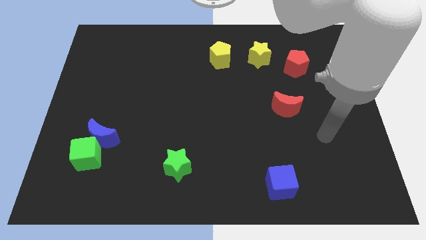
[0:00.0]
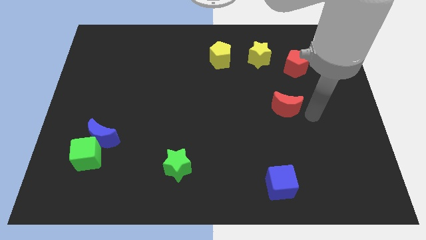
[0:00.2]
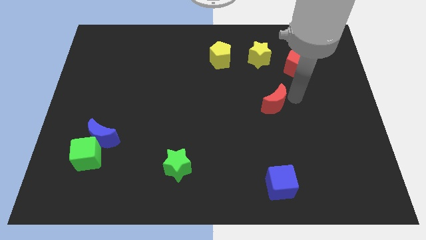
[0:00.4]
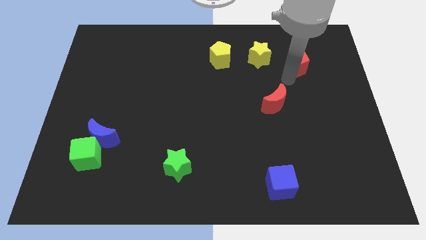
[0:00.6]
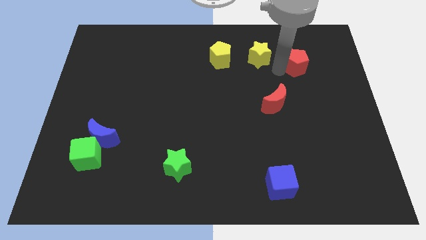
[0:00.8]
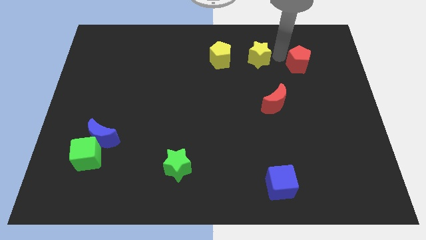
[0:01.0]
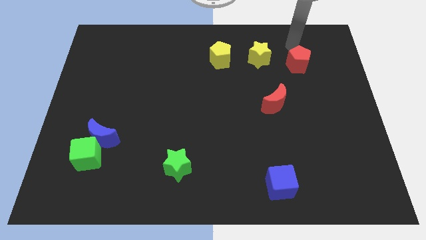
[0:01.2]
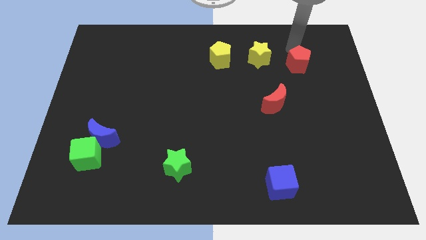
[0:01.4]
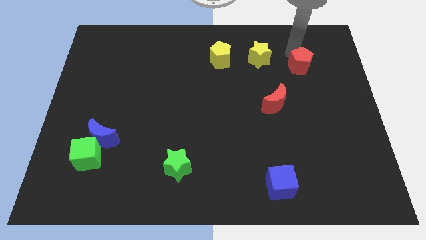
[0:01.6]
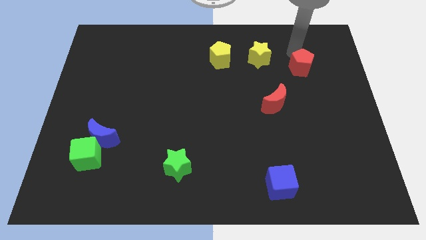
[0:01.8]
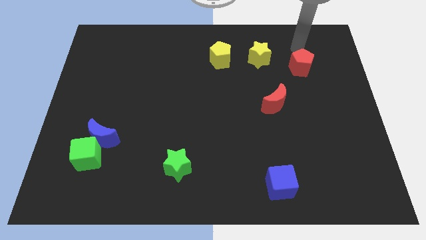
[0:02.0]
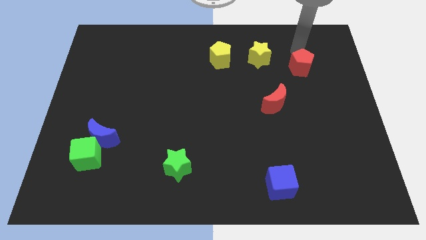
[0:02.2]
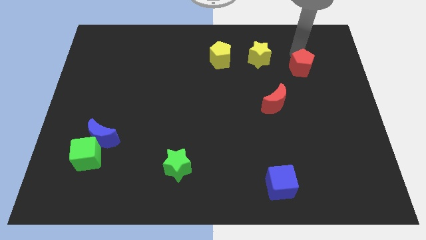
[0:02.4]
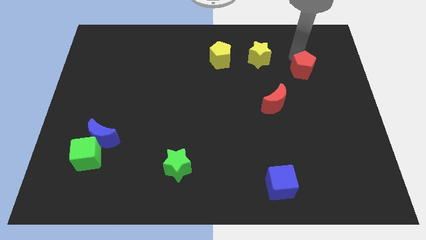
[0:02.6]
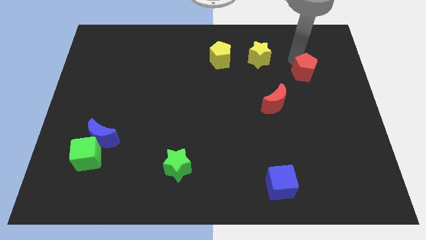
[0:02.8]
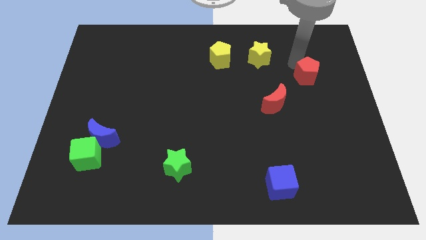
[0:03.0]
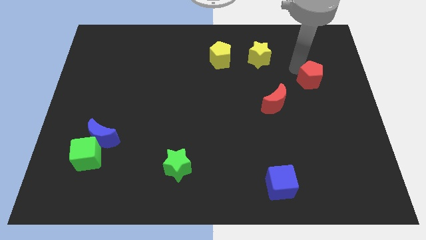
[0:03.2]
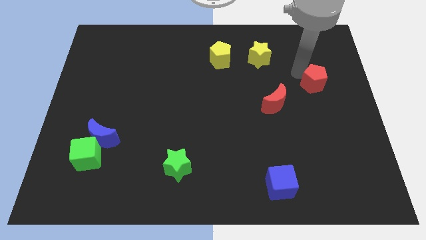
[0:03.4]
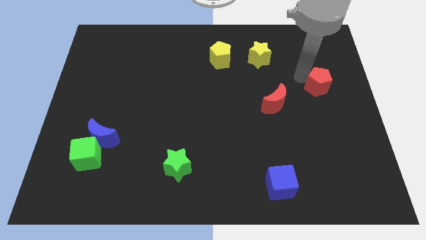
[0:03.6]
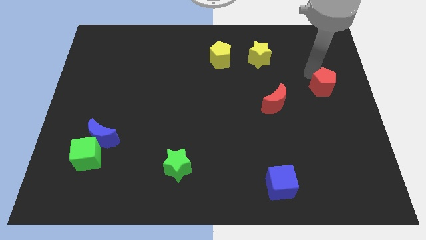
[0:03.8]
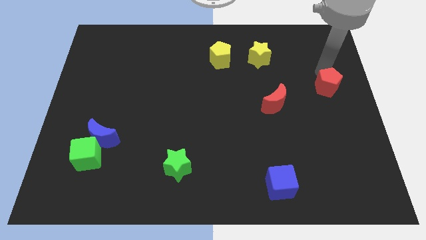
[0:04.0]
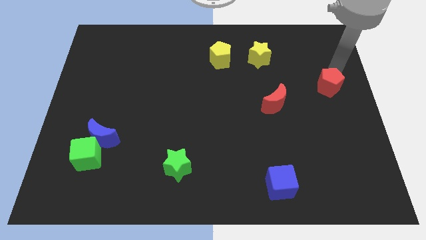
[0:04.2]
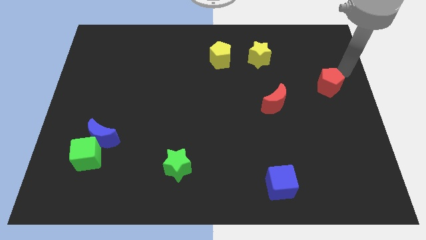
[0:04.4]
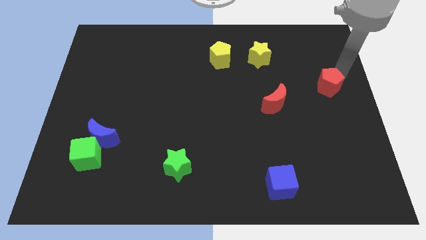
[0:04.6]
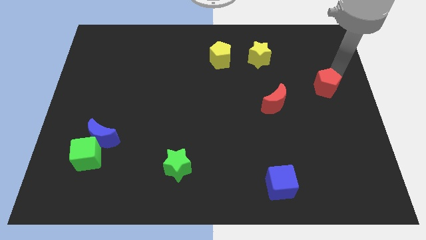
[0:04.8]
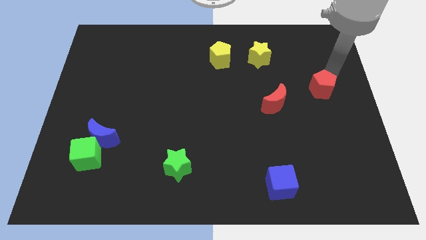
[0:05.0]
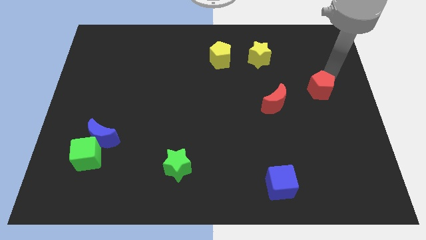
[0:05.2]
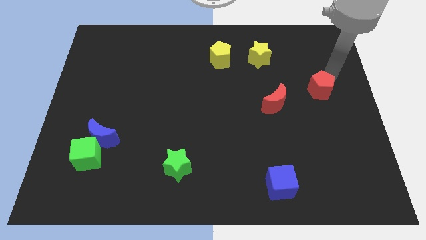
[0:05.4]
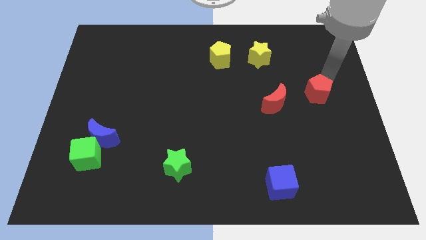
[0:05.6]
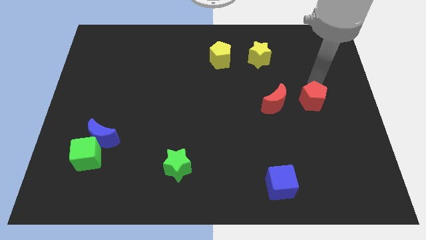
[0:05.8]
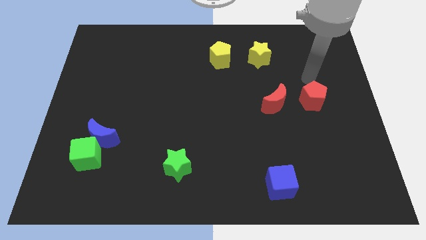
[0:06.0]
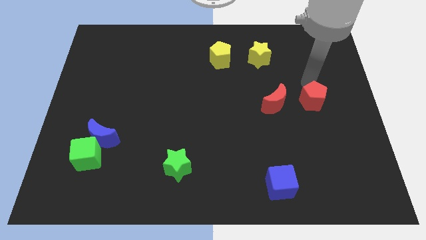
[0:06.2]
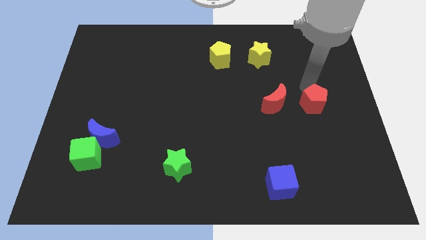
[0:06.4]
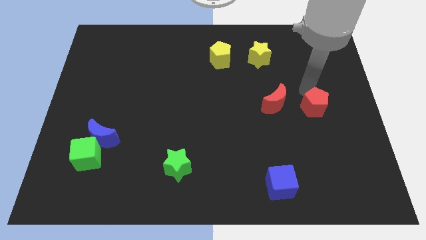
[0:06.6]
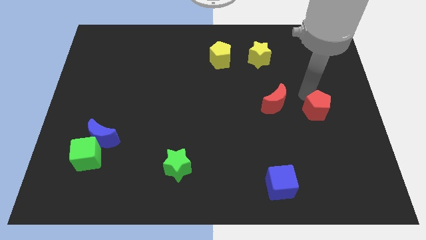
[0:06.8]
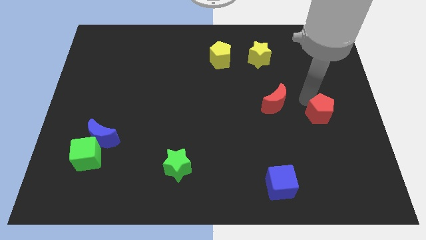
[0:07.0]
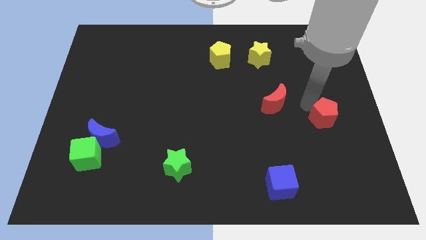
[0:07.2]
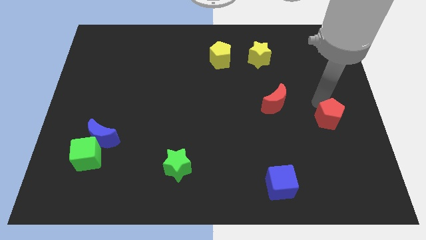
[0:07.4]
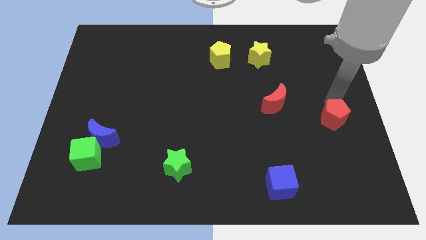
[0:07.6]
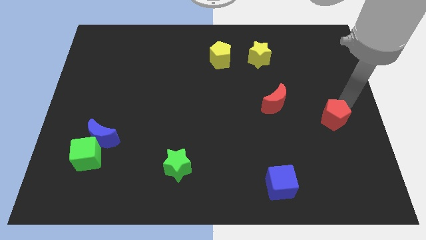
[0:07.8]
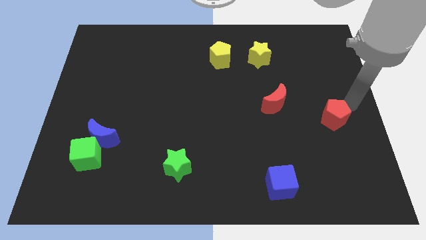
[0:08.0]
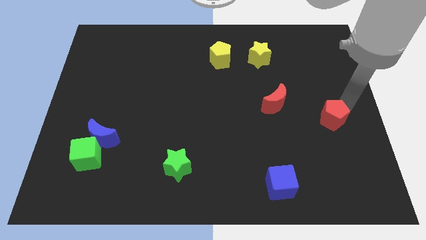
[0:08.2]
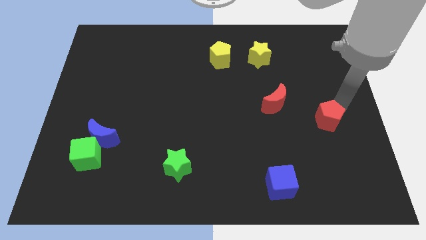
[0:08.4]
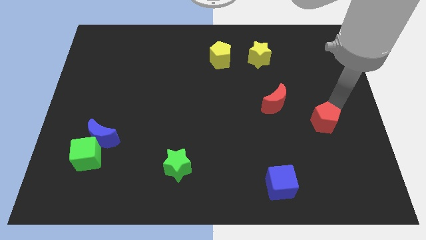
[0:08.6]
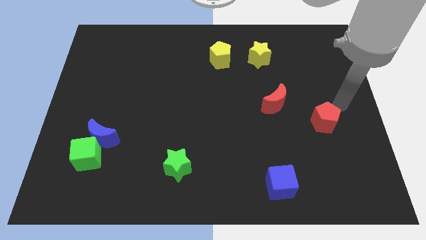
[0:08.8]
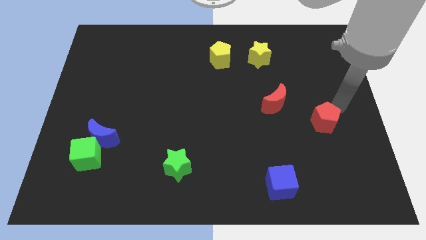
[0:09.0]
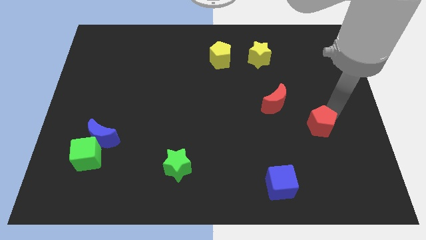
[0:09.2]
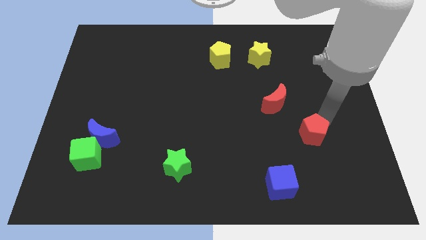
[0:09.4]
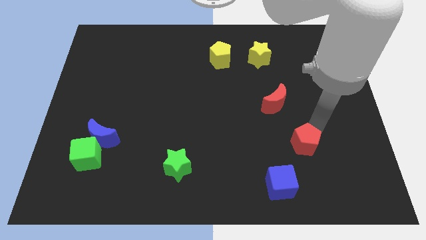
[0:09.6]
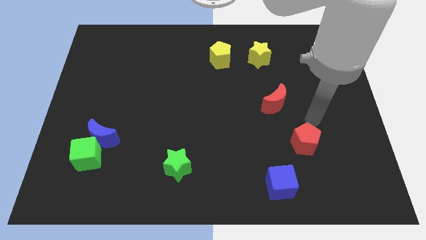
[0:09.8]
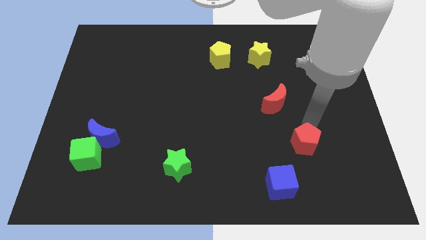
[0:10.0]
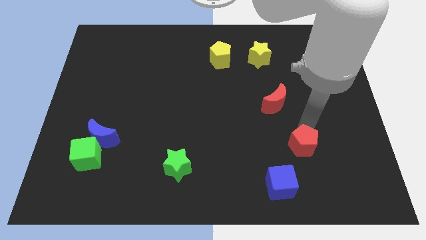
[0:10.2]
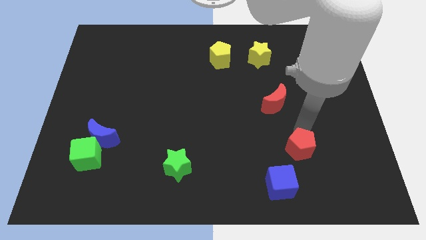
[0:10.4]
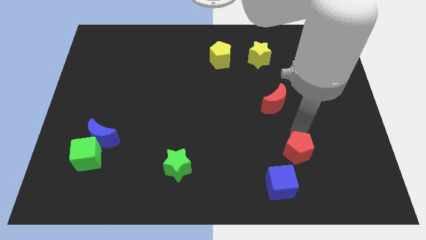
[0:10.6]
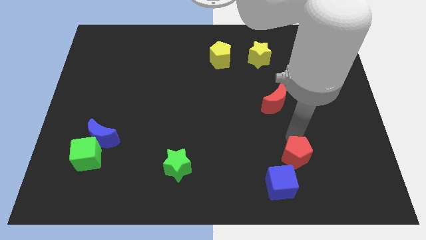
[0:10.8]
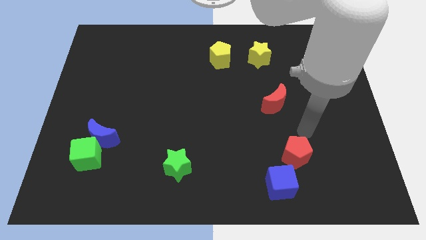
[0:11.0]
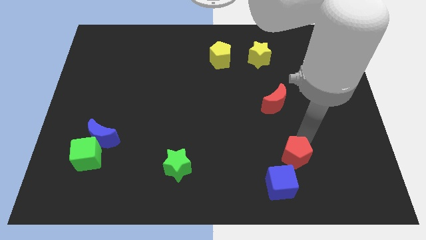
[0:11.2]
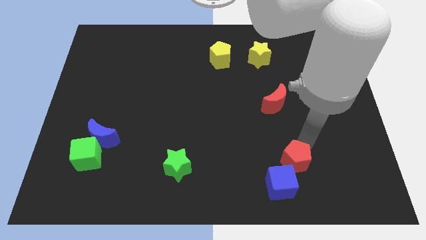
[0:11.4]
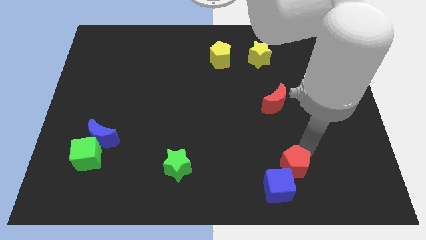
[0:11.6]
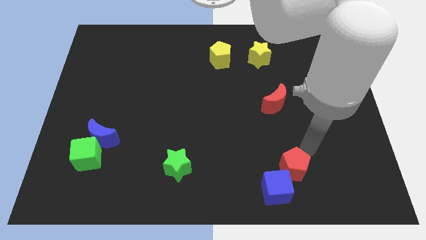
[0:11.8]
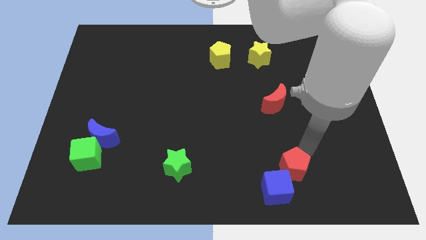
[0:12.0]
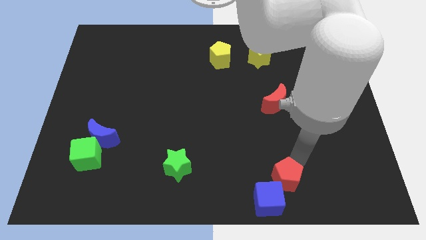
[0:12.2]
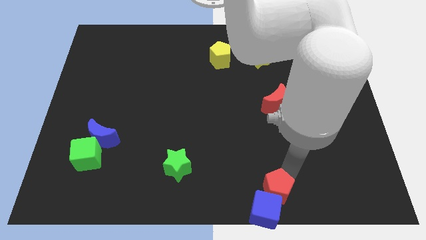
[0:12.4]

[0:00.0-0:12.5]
push the red pentagon to the blue cube
